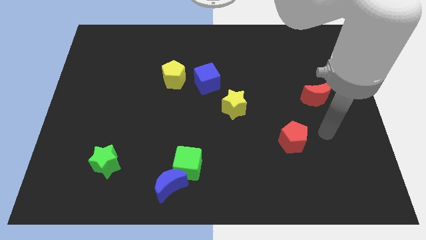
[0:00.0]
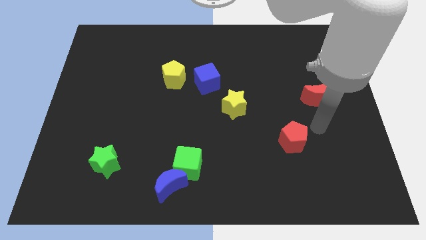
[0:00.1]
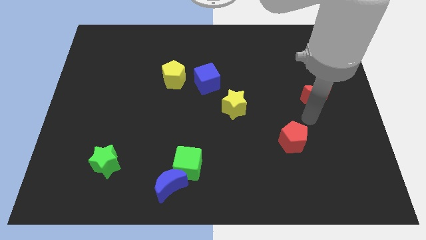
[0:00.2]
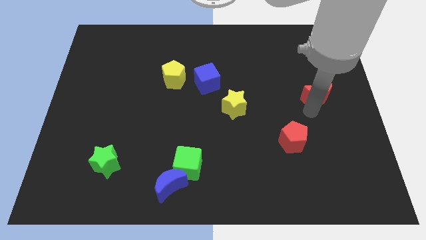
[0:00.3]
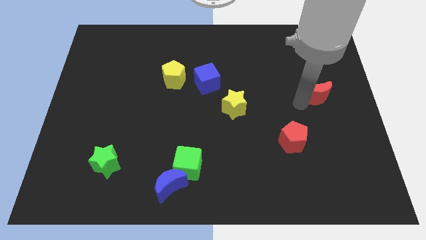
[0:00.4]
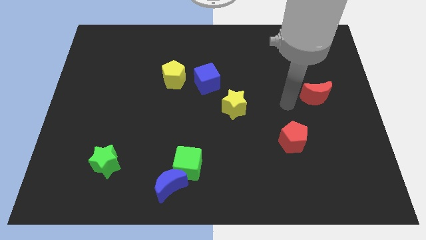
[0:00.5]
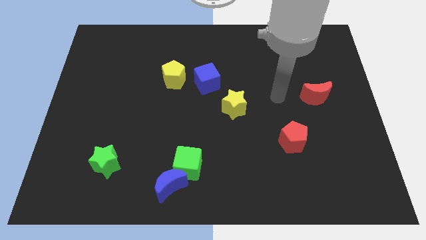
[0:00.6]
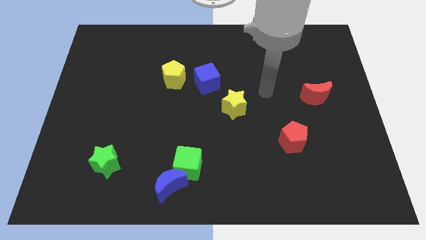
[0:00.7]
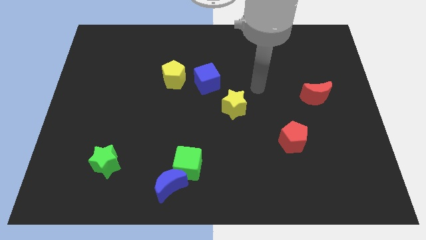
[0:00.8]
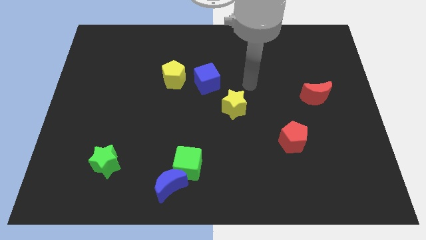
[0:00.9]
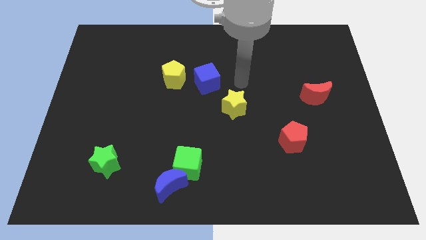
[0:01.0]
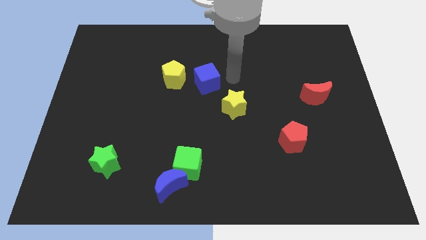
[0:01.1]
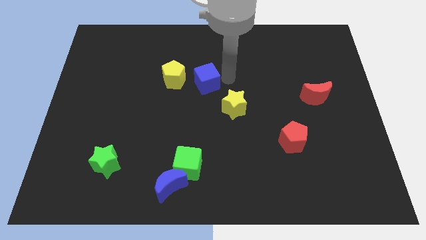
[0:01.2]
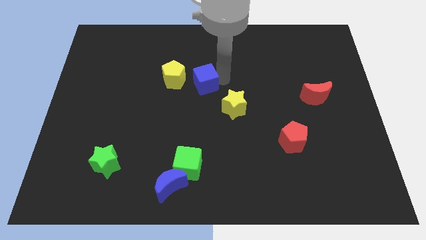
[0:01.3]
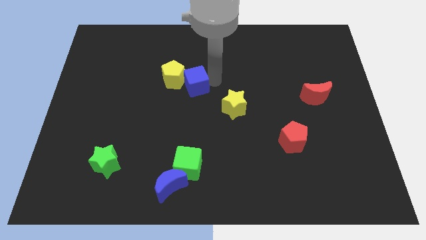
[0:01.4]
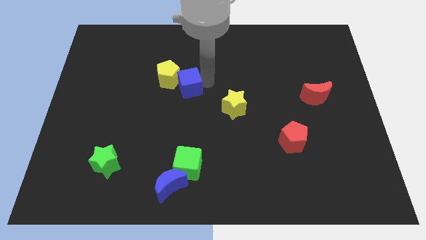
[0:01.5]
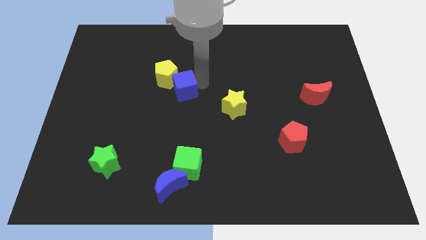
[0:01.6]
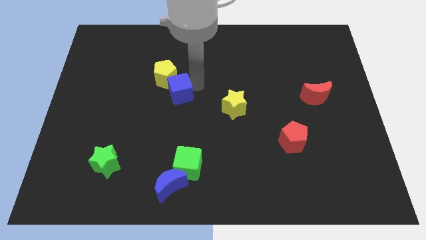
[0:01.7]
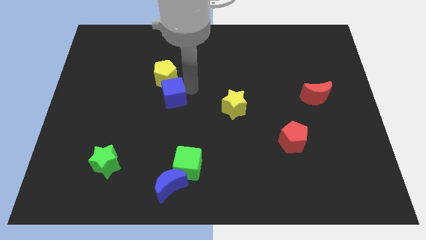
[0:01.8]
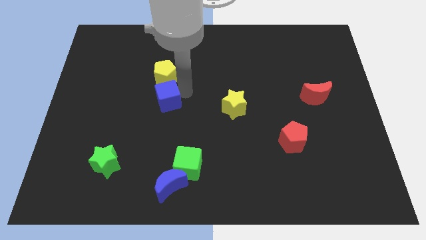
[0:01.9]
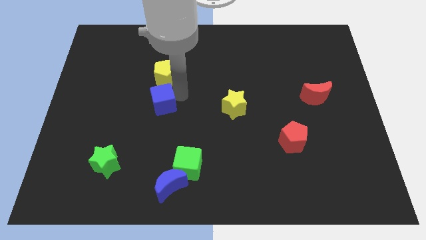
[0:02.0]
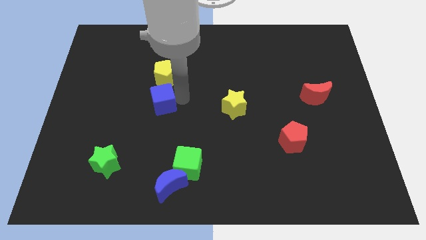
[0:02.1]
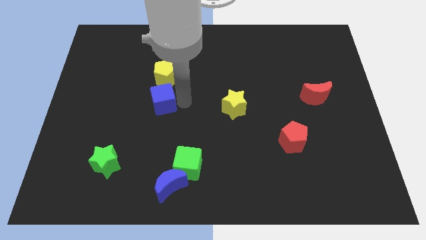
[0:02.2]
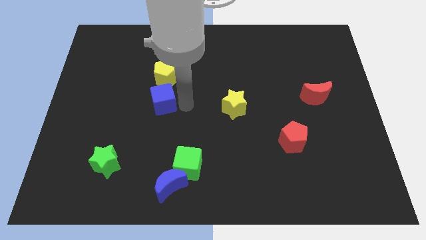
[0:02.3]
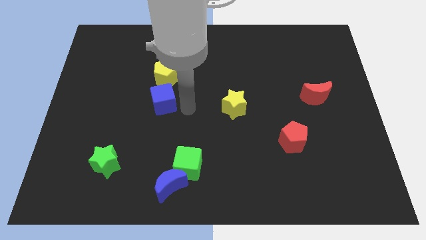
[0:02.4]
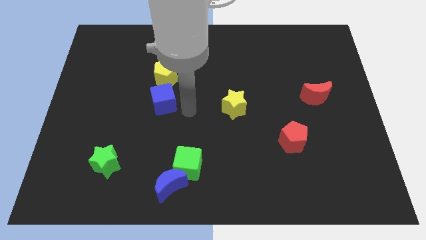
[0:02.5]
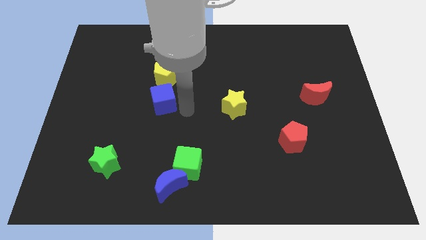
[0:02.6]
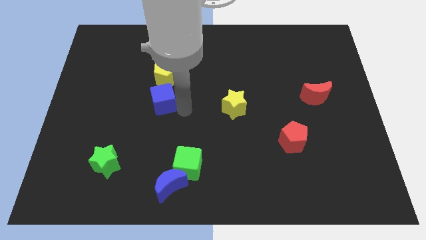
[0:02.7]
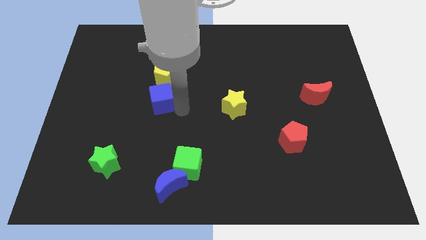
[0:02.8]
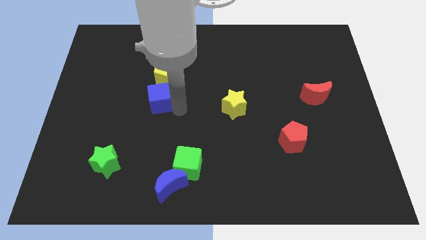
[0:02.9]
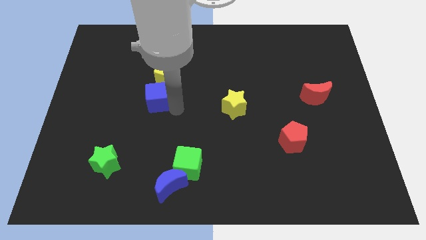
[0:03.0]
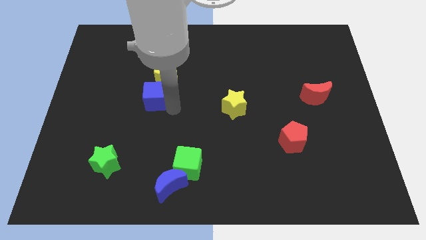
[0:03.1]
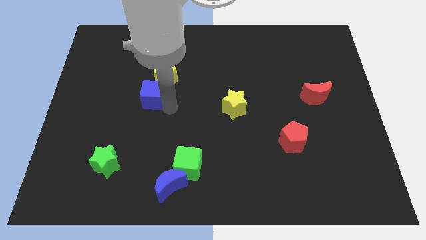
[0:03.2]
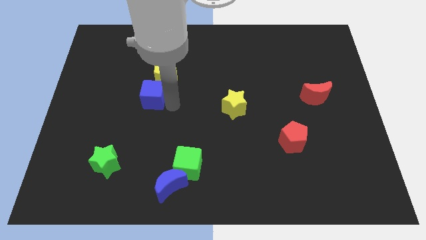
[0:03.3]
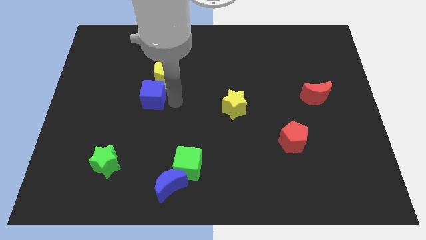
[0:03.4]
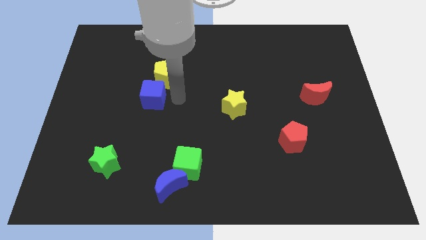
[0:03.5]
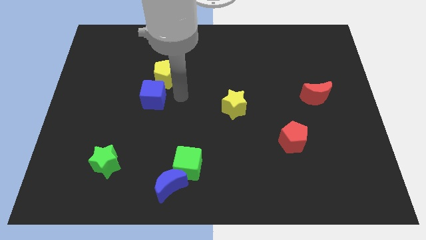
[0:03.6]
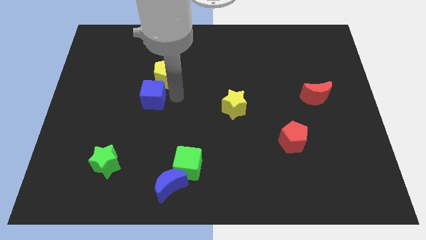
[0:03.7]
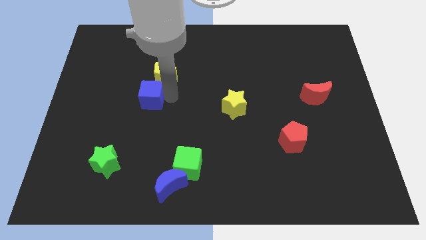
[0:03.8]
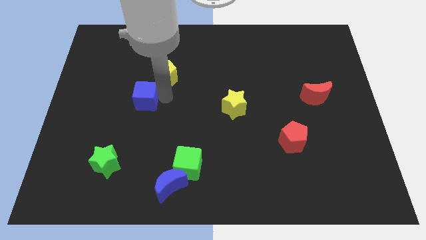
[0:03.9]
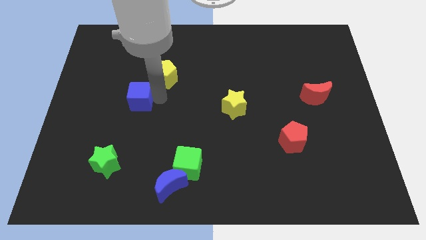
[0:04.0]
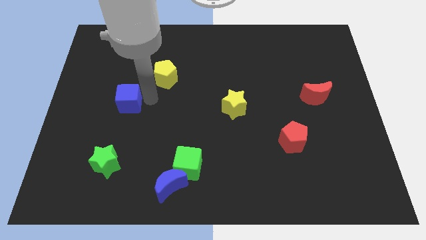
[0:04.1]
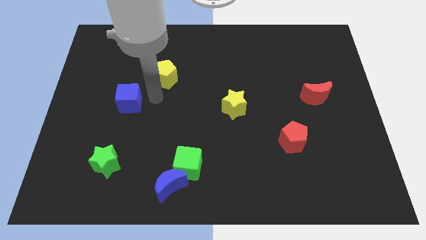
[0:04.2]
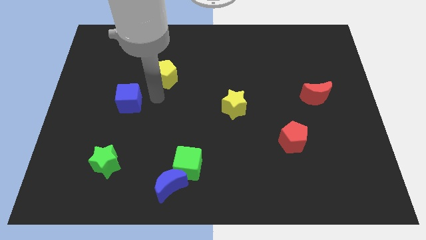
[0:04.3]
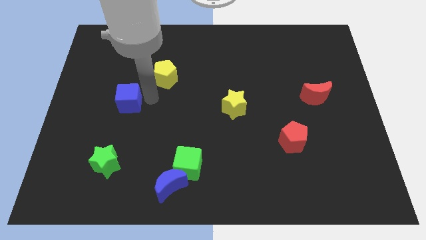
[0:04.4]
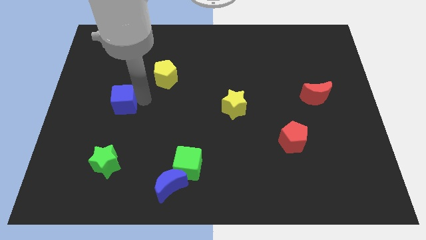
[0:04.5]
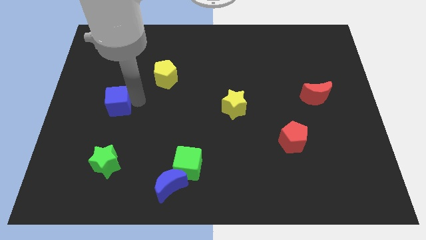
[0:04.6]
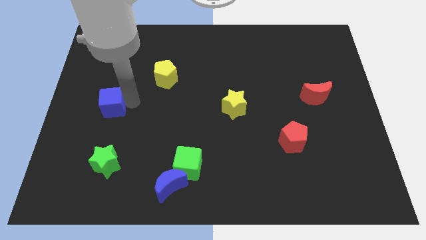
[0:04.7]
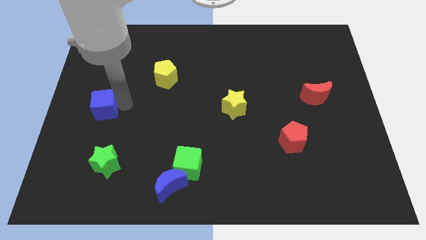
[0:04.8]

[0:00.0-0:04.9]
move the blue cube to the left side of the board

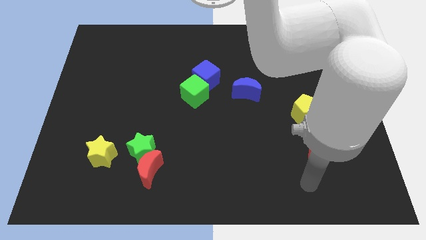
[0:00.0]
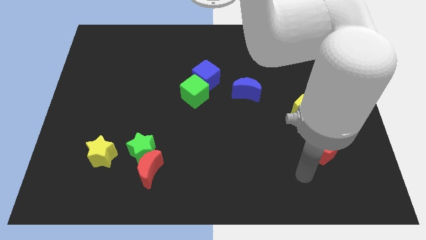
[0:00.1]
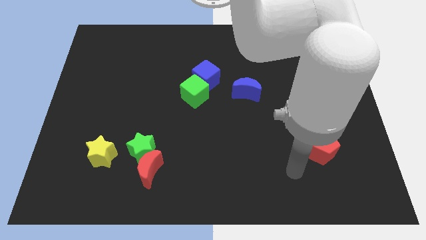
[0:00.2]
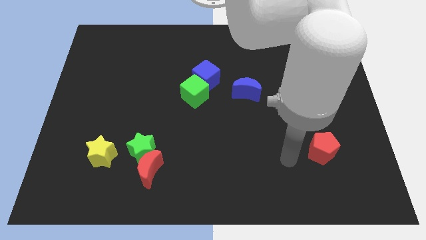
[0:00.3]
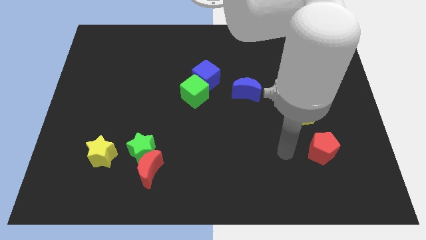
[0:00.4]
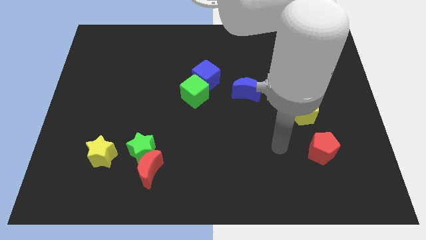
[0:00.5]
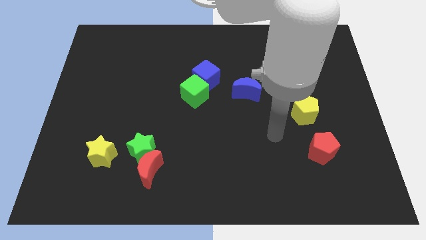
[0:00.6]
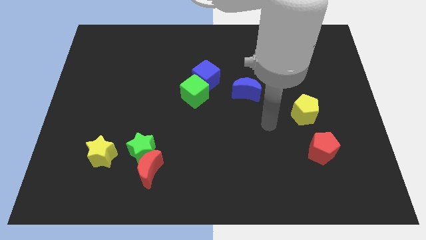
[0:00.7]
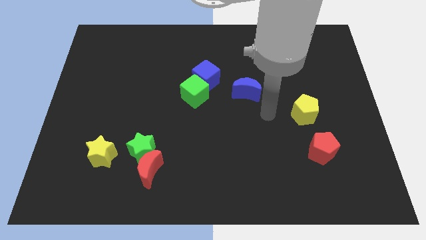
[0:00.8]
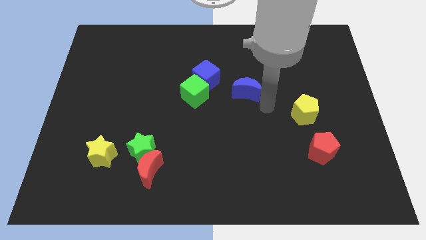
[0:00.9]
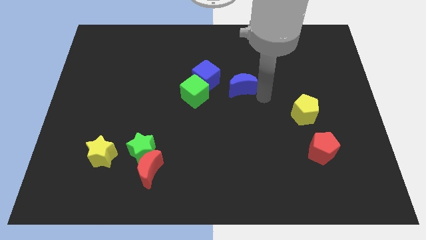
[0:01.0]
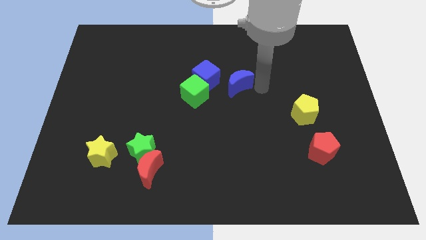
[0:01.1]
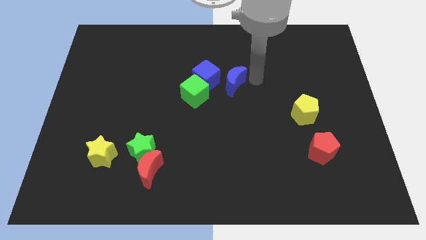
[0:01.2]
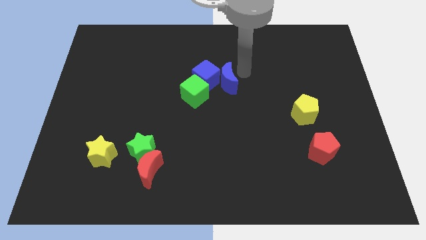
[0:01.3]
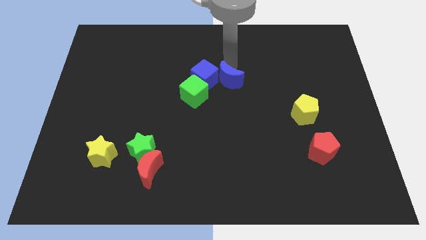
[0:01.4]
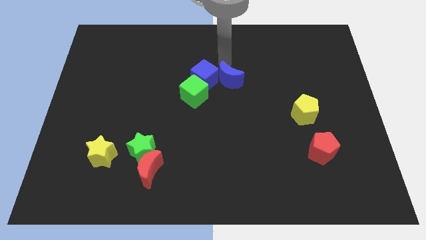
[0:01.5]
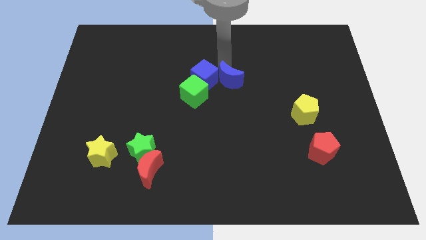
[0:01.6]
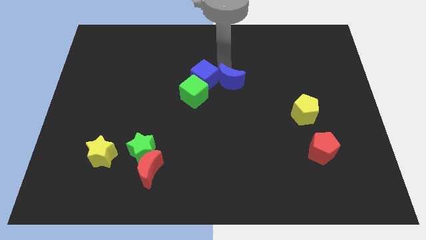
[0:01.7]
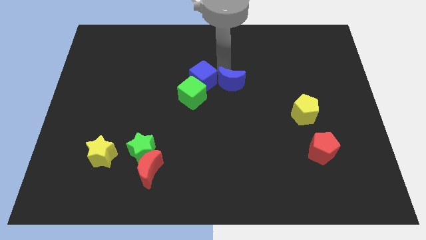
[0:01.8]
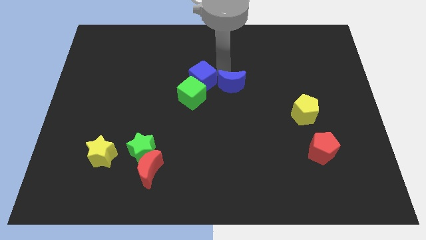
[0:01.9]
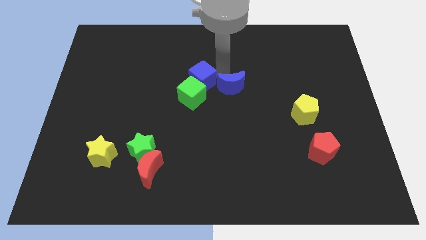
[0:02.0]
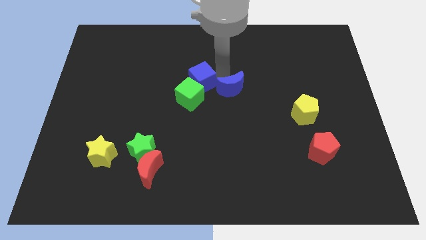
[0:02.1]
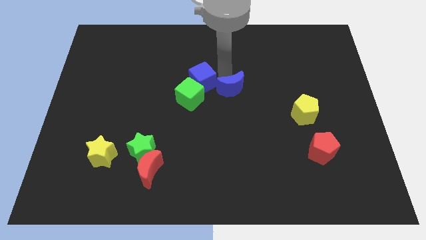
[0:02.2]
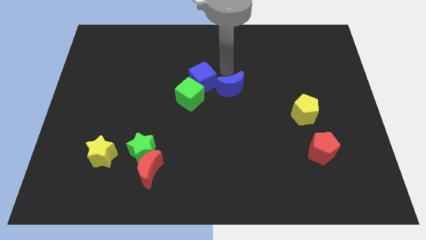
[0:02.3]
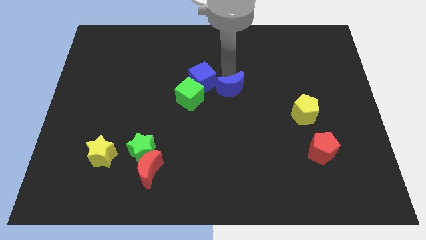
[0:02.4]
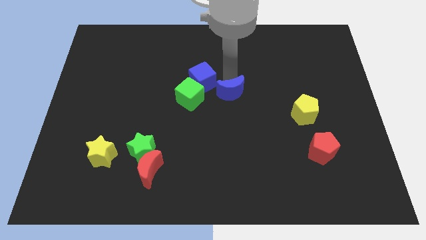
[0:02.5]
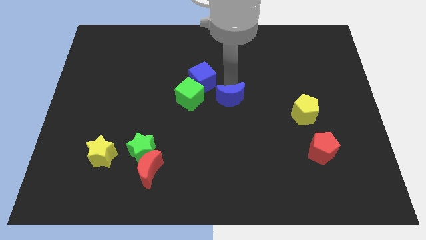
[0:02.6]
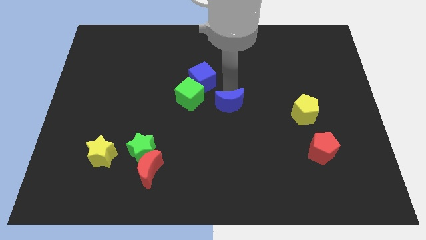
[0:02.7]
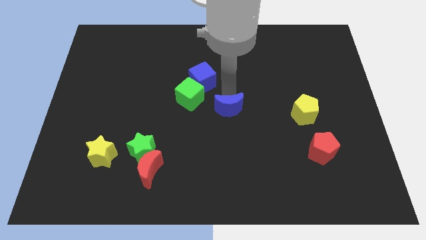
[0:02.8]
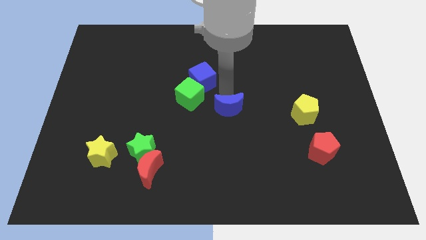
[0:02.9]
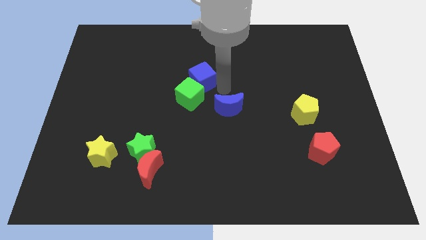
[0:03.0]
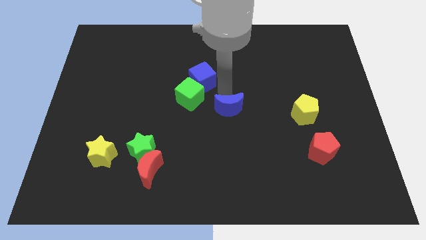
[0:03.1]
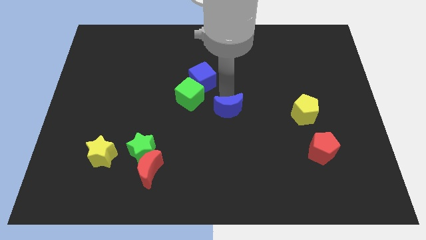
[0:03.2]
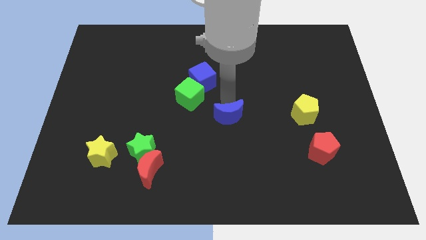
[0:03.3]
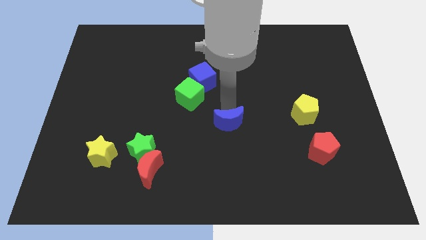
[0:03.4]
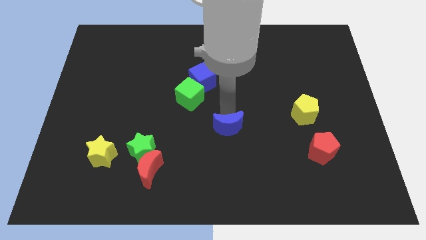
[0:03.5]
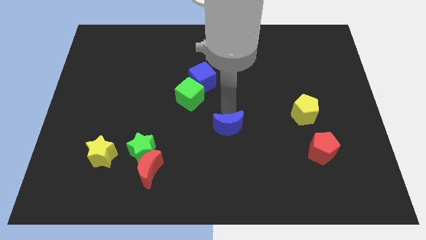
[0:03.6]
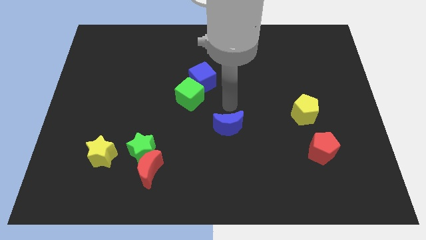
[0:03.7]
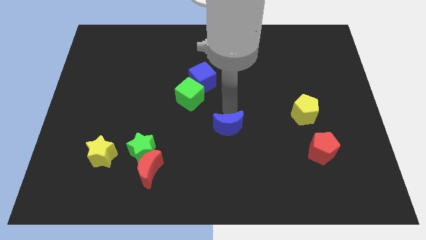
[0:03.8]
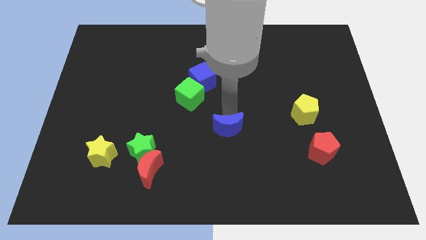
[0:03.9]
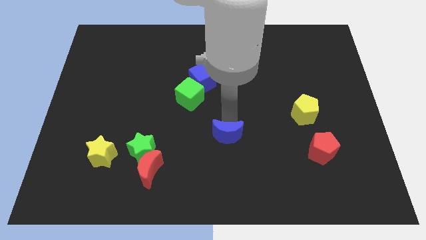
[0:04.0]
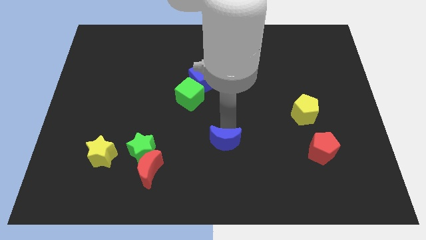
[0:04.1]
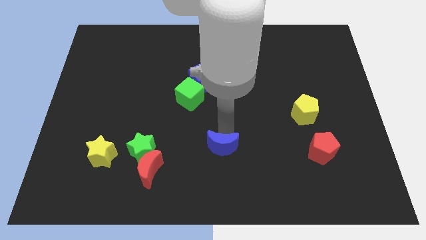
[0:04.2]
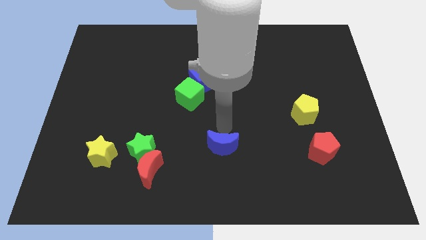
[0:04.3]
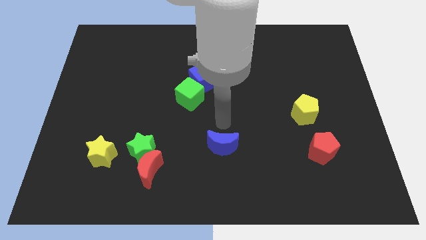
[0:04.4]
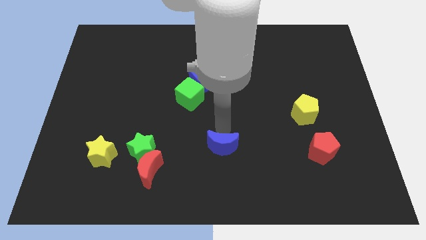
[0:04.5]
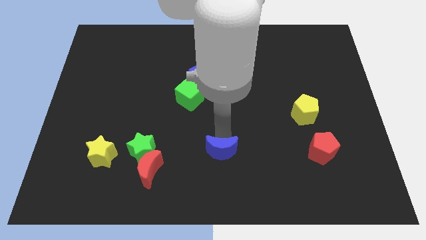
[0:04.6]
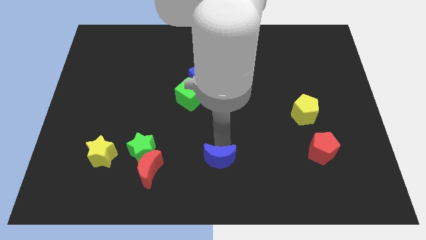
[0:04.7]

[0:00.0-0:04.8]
move the blue moon to the bottom
